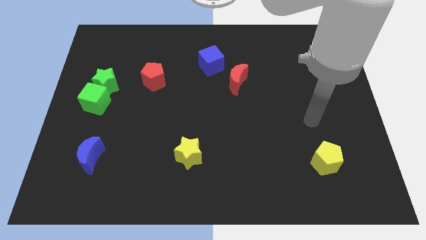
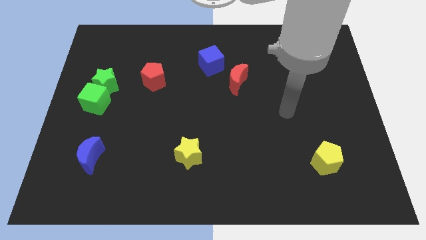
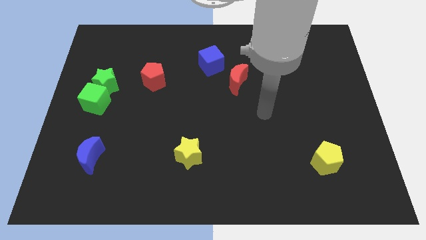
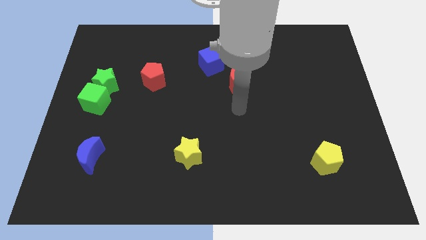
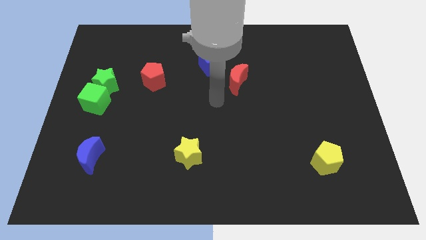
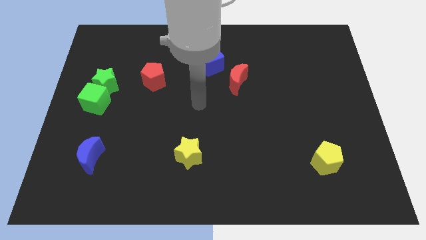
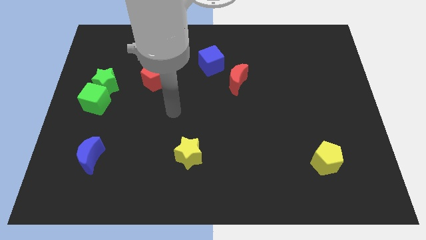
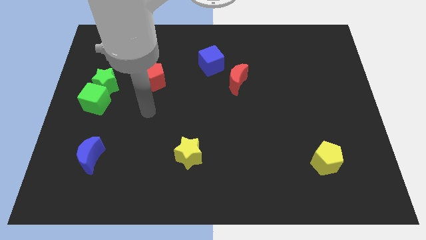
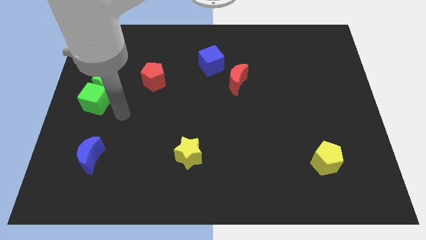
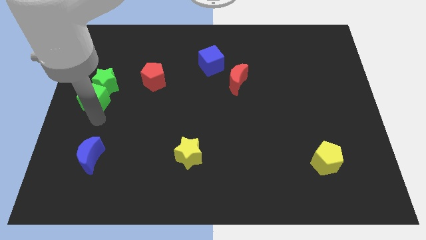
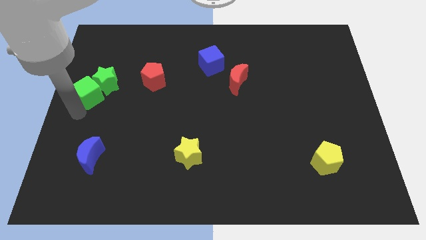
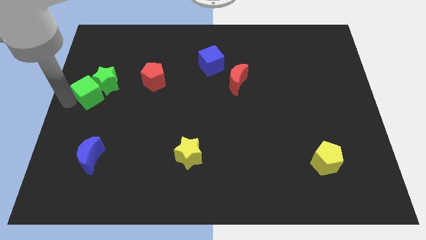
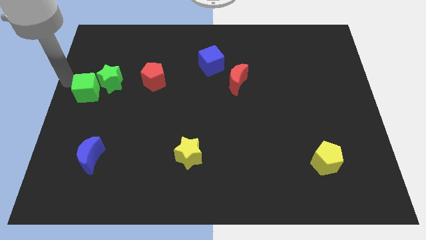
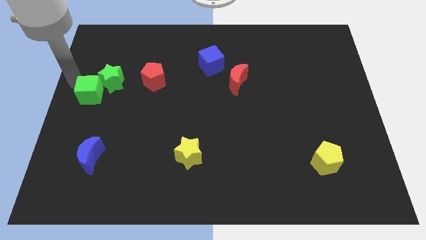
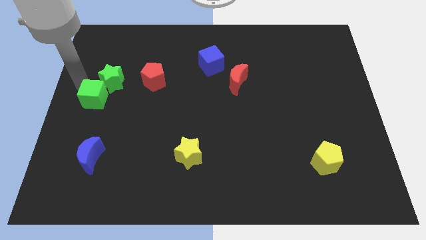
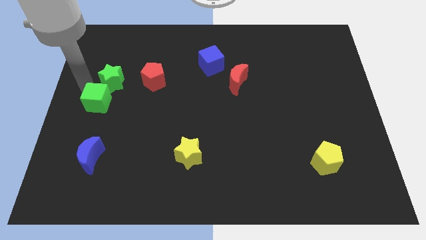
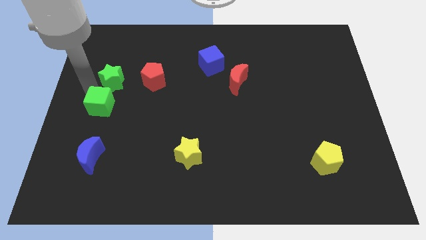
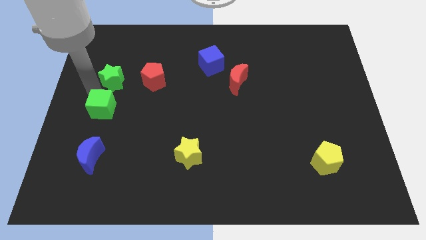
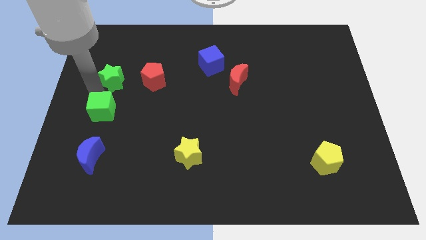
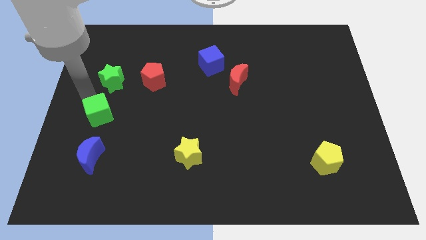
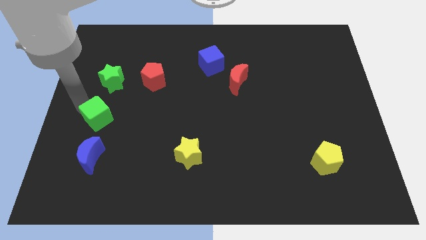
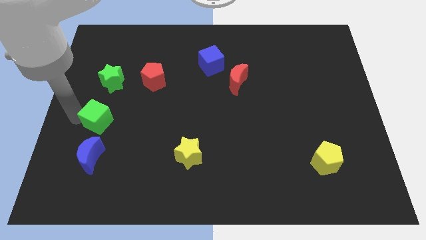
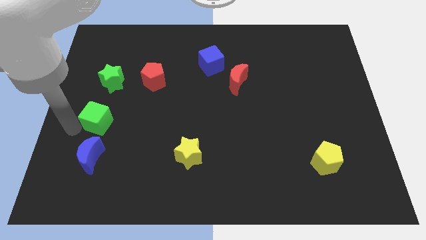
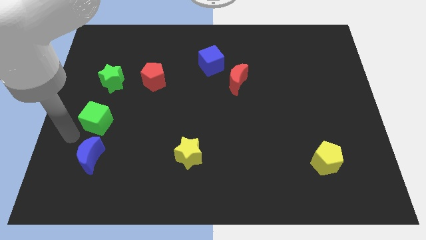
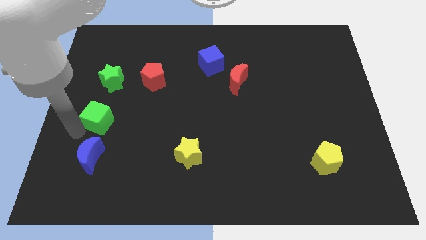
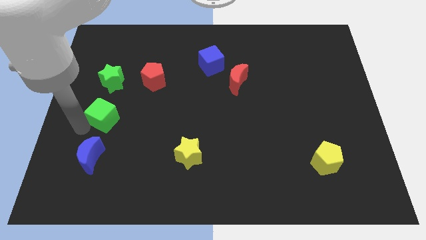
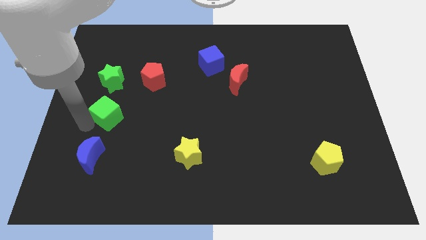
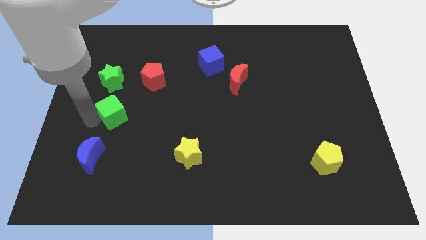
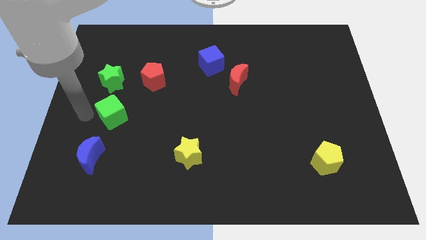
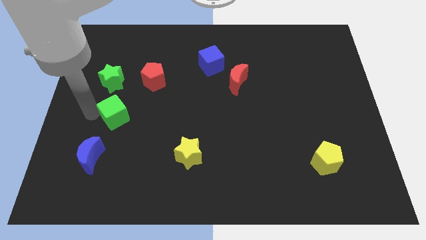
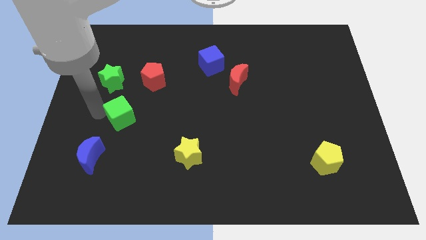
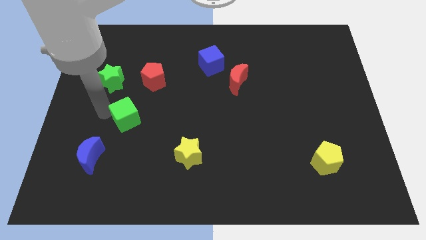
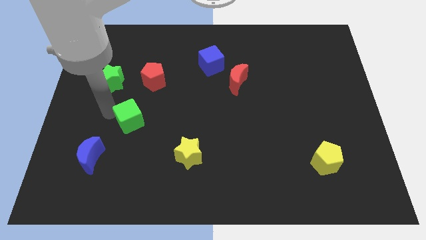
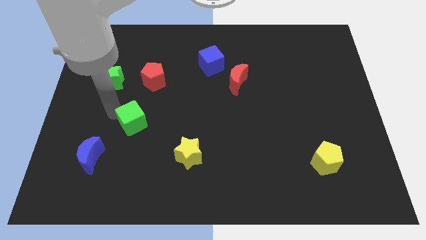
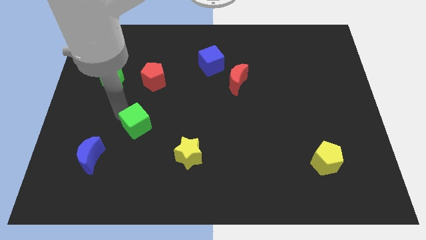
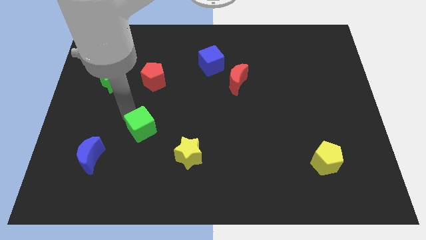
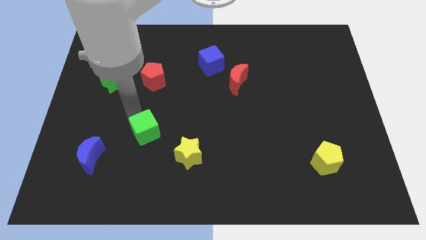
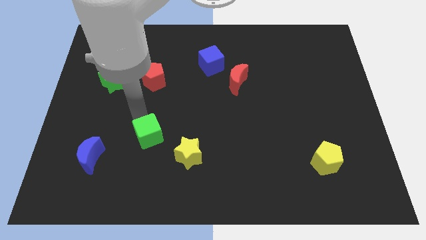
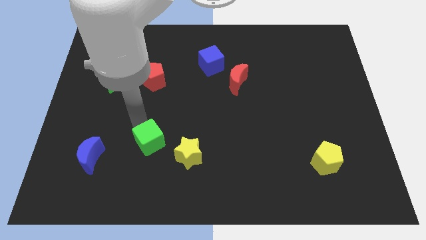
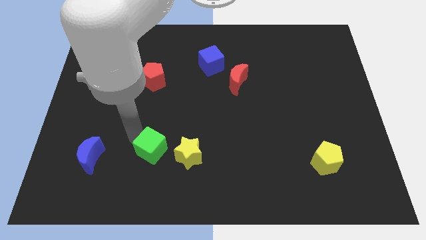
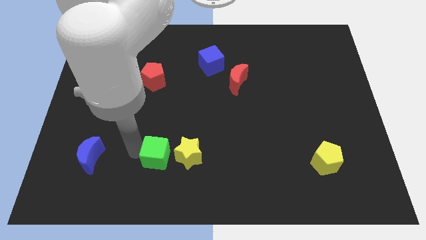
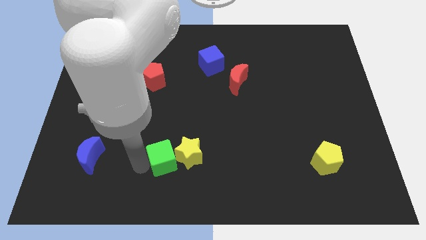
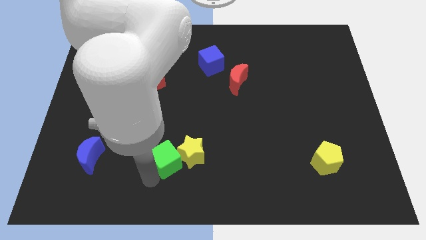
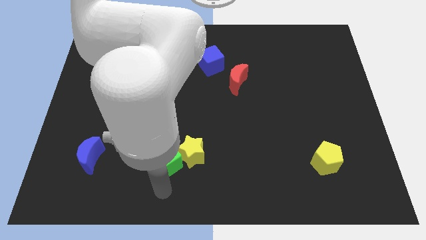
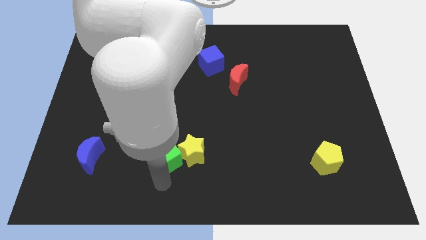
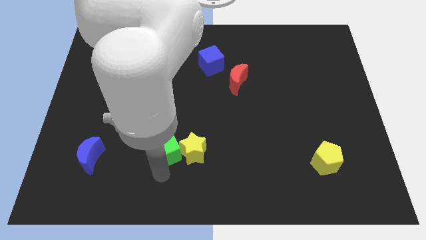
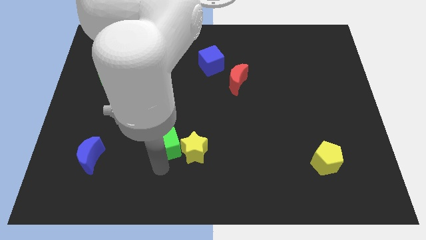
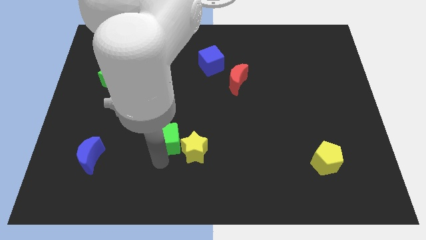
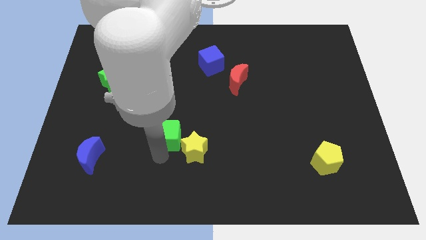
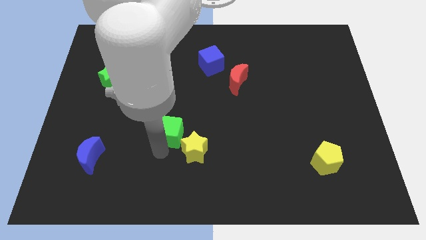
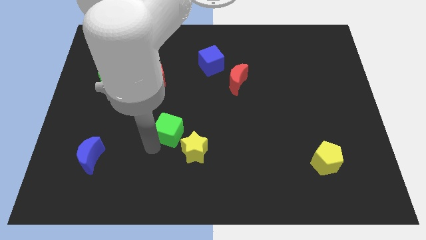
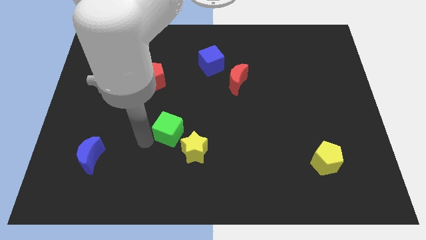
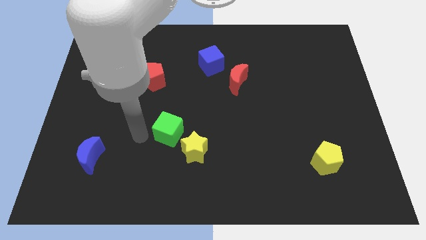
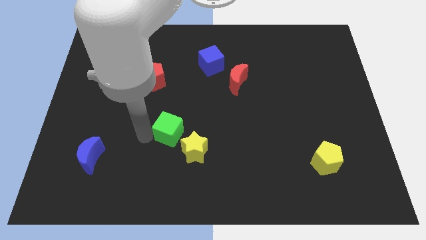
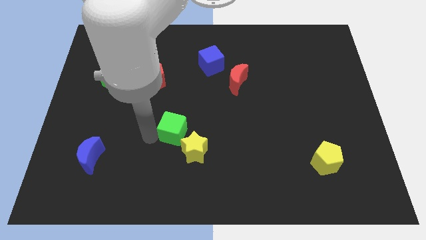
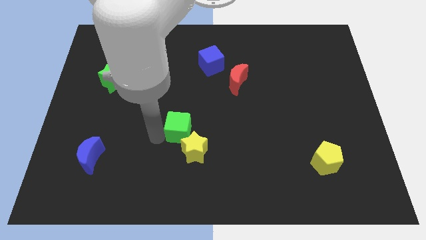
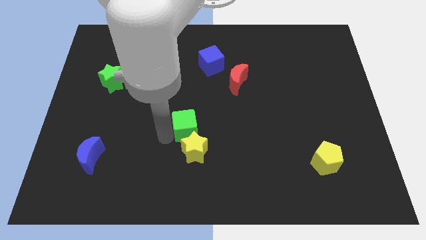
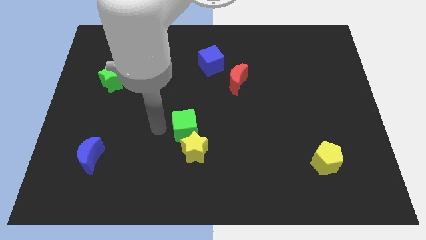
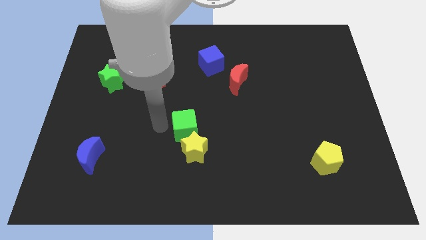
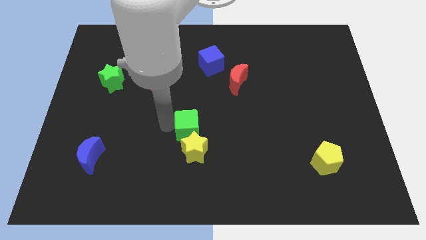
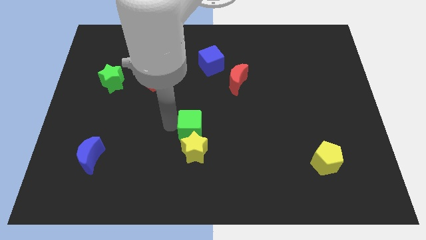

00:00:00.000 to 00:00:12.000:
push the green cube diagonally up and to the right of the yellow star

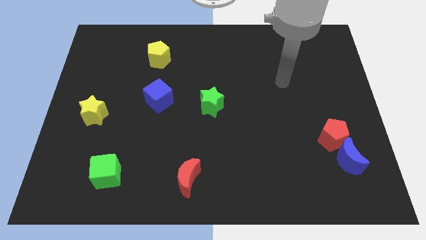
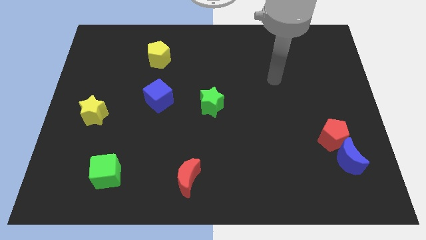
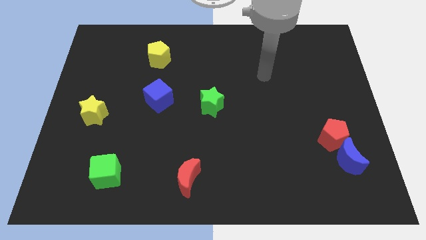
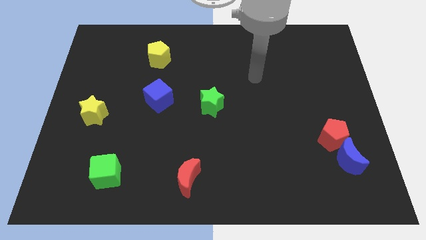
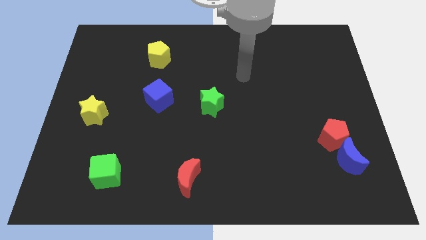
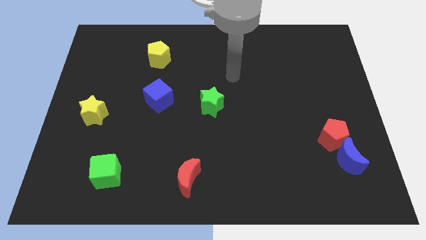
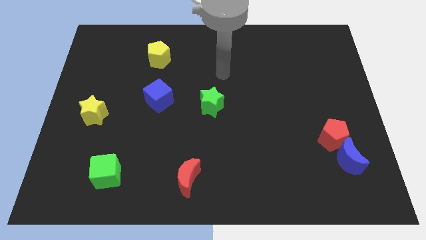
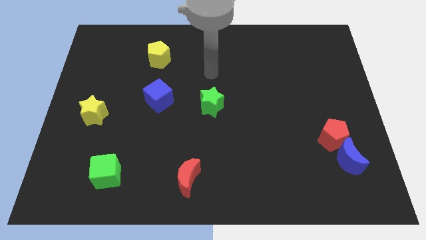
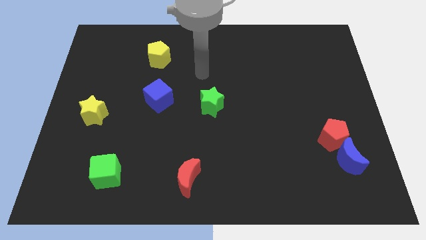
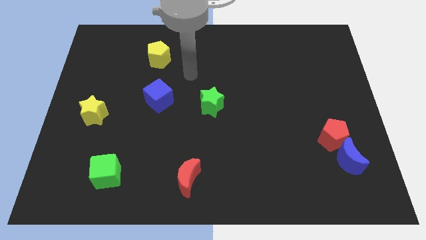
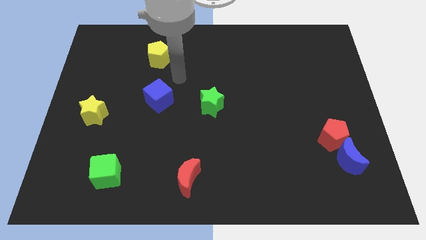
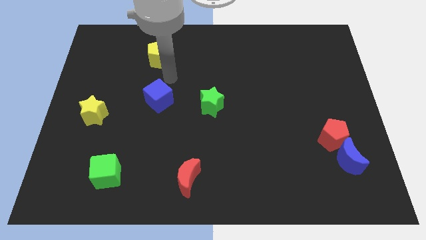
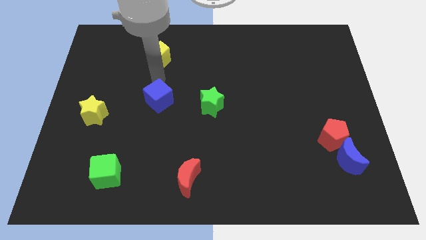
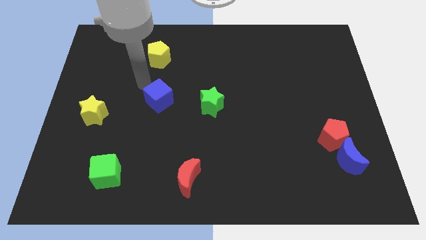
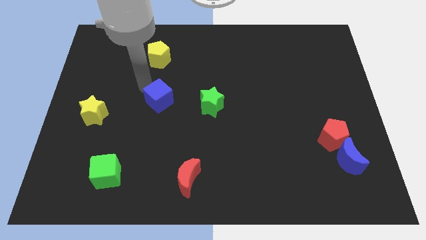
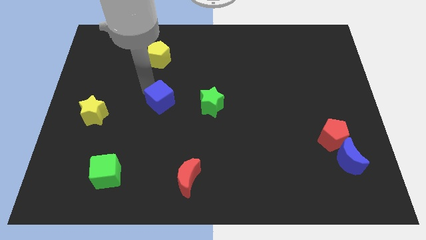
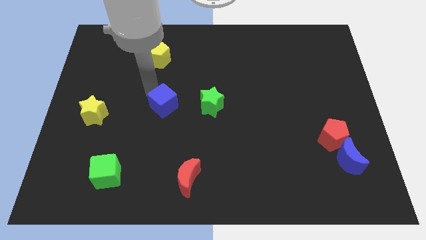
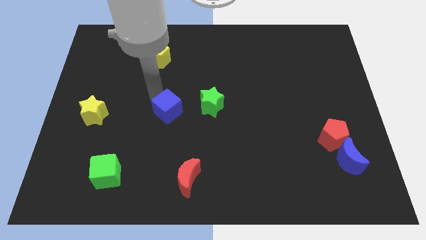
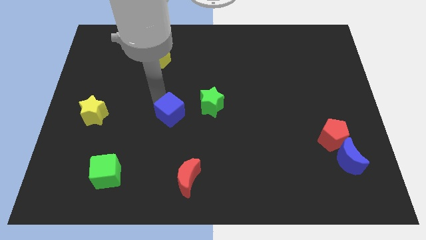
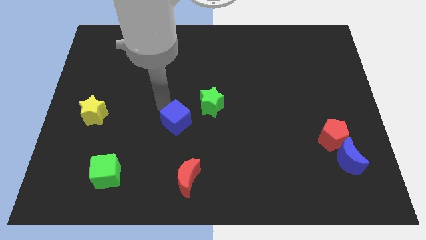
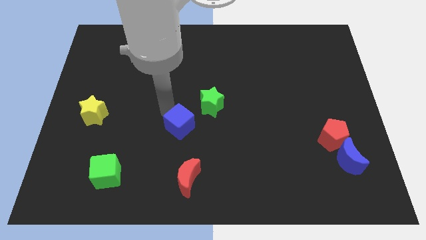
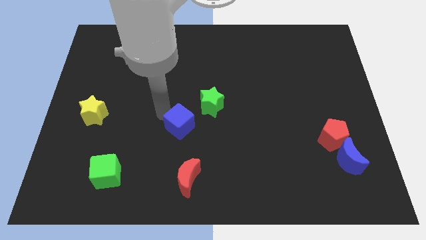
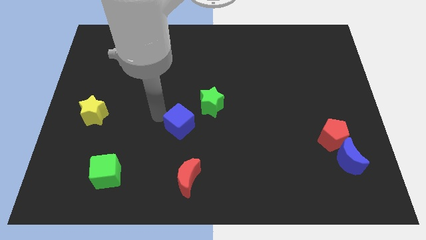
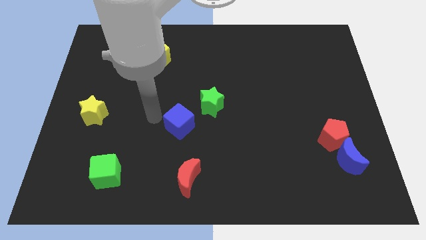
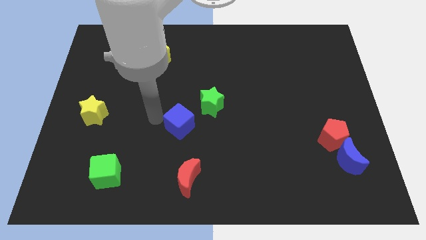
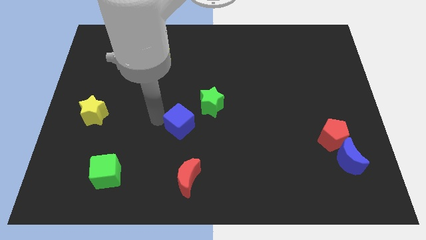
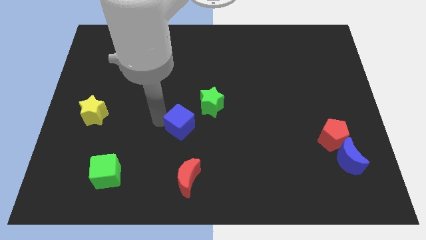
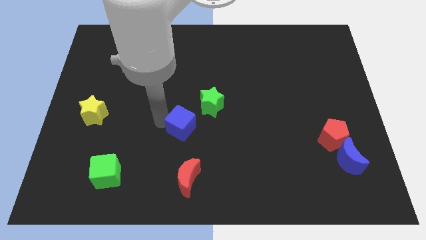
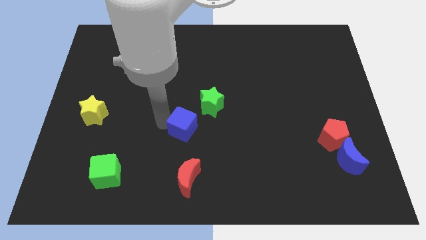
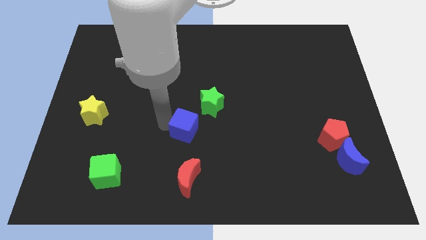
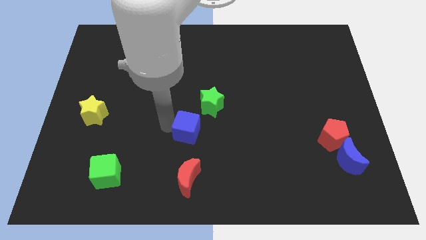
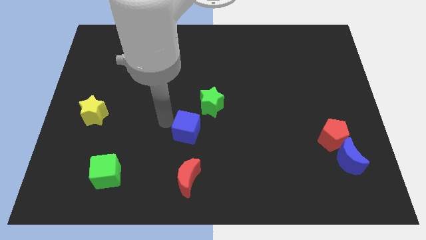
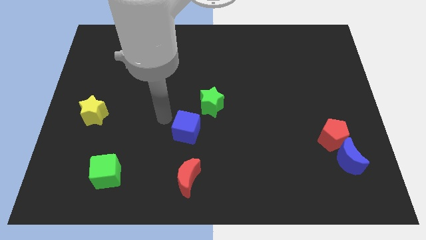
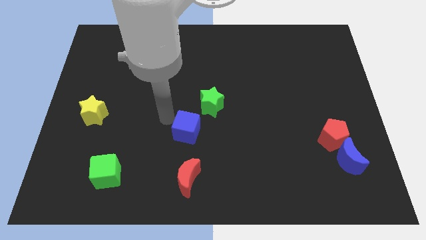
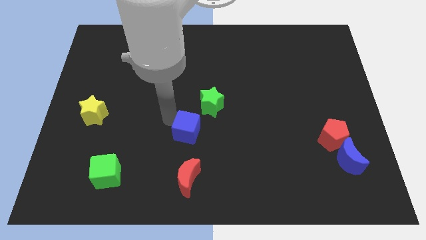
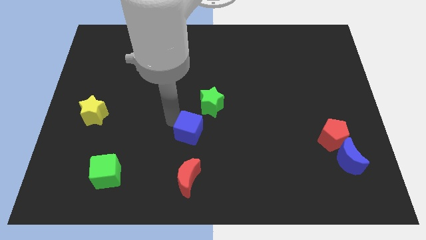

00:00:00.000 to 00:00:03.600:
move the blue cube to the bottom side of the green star
